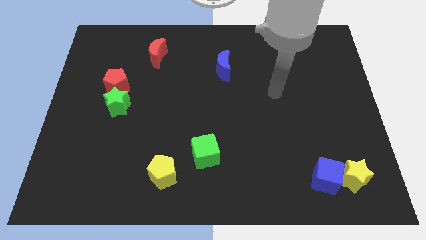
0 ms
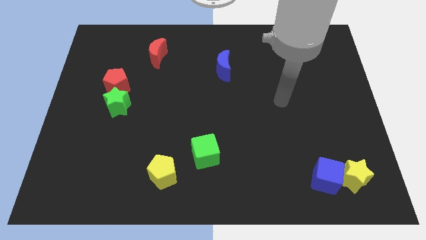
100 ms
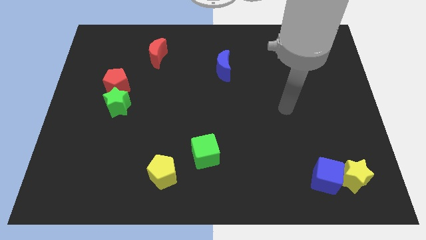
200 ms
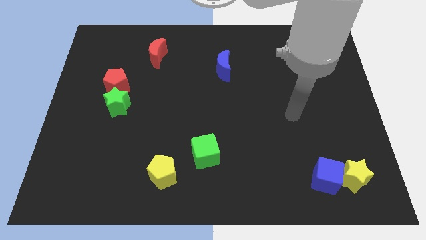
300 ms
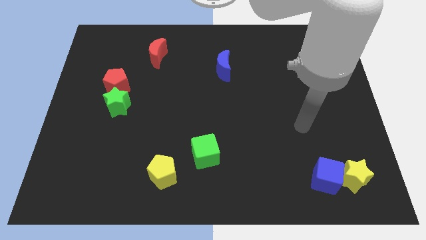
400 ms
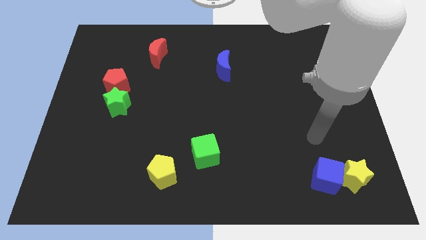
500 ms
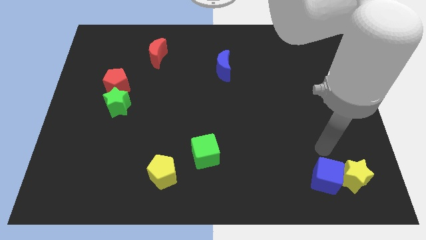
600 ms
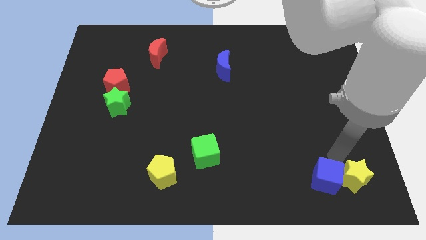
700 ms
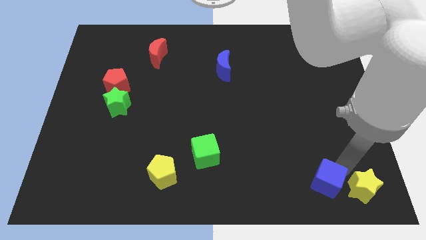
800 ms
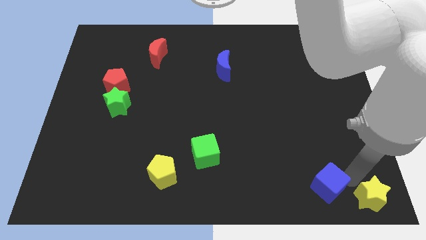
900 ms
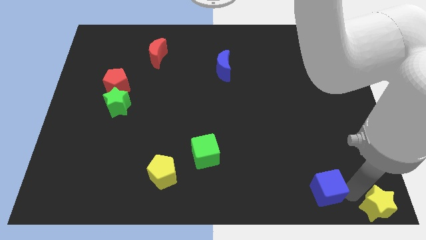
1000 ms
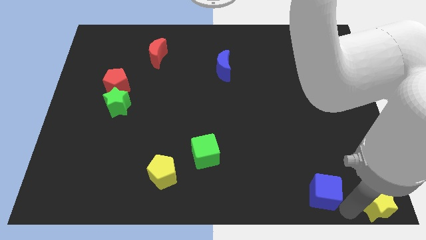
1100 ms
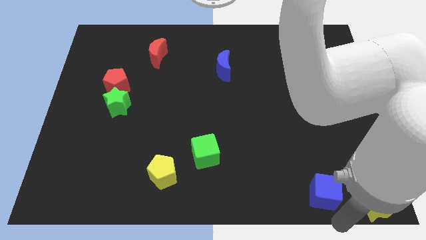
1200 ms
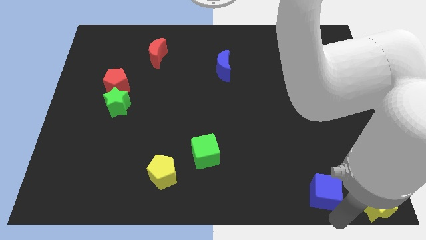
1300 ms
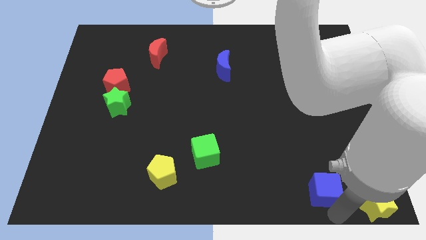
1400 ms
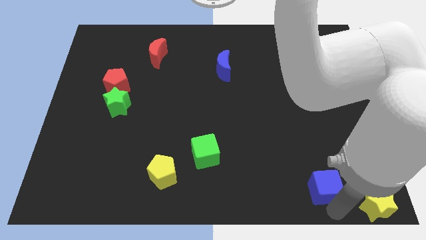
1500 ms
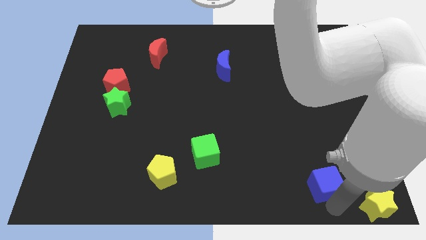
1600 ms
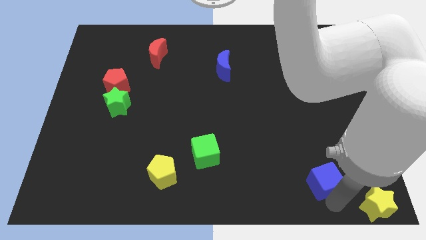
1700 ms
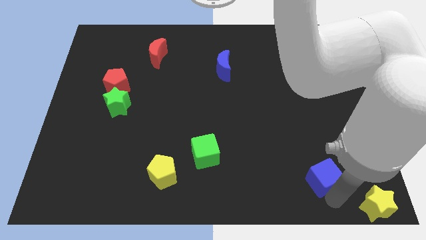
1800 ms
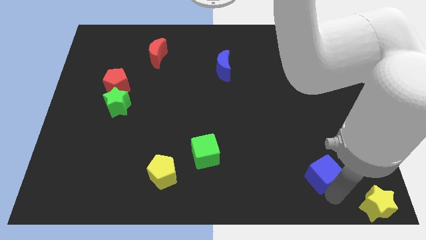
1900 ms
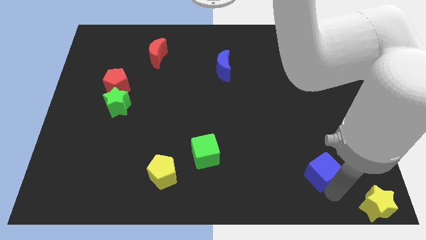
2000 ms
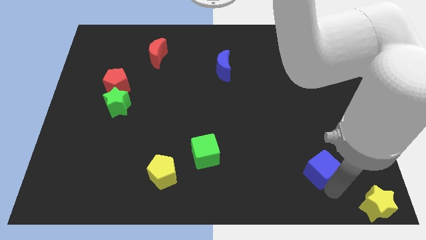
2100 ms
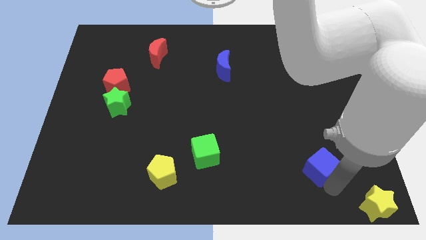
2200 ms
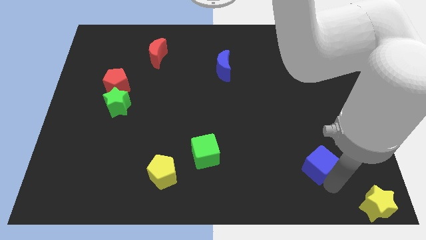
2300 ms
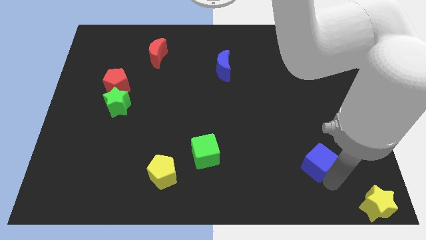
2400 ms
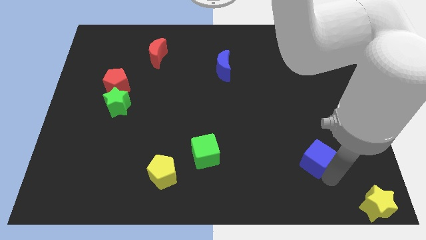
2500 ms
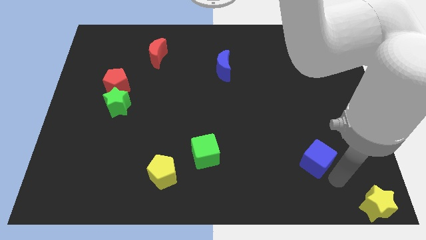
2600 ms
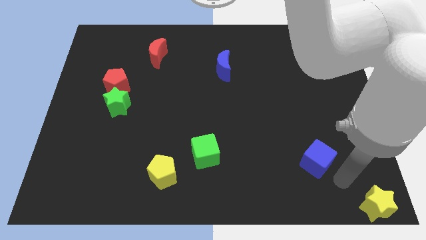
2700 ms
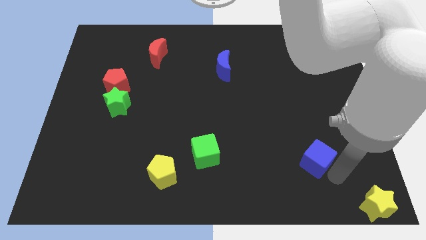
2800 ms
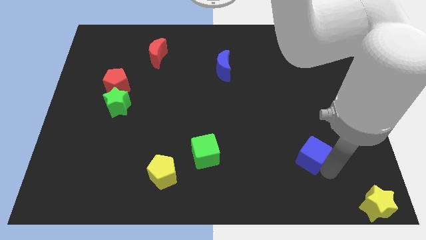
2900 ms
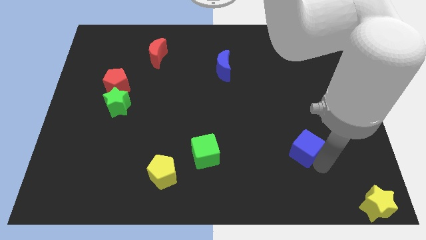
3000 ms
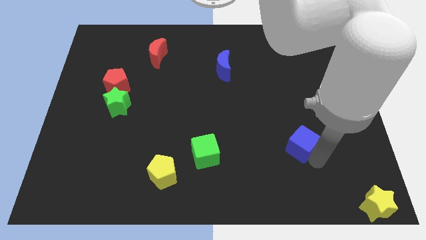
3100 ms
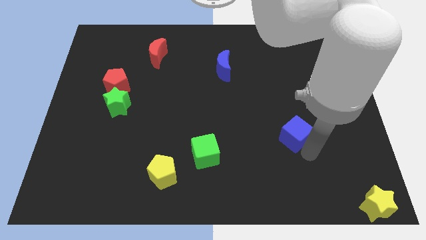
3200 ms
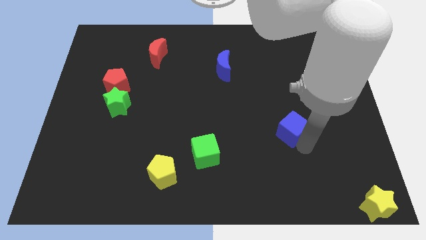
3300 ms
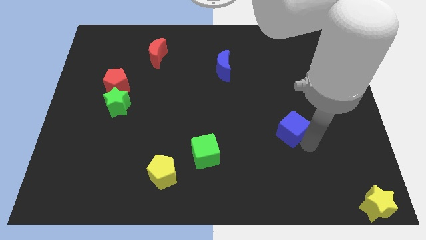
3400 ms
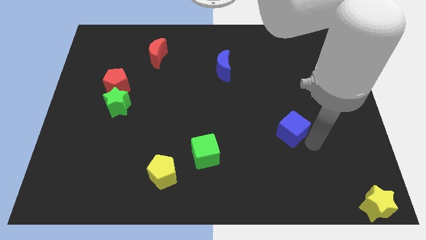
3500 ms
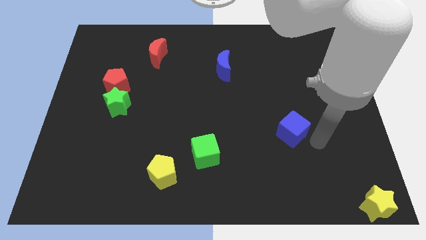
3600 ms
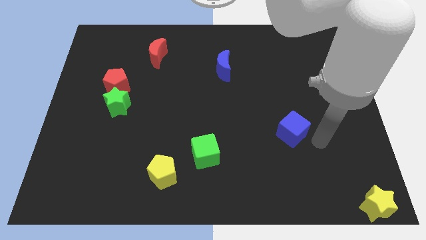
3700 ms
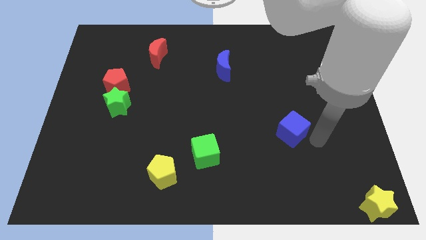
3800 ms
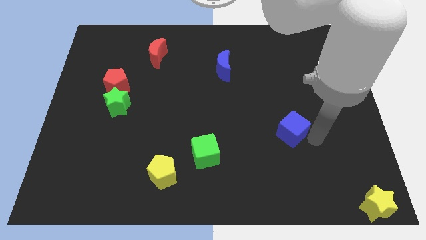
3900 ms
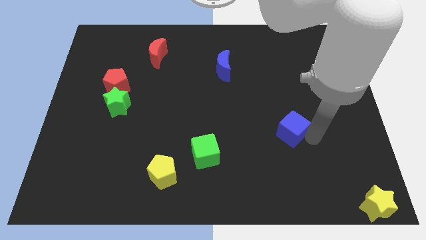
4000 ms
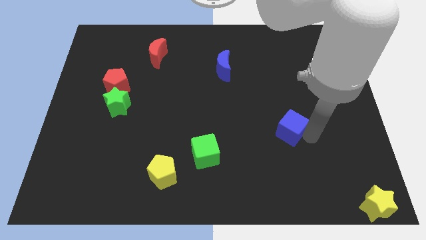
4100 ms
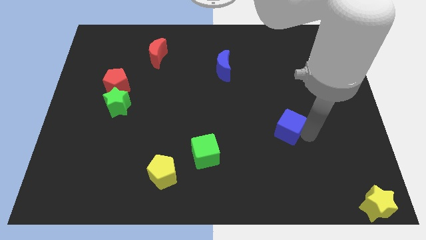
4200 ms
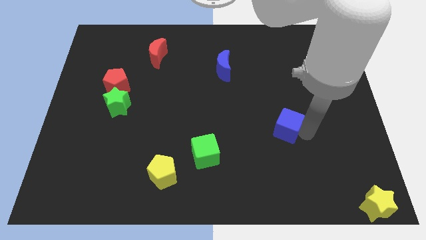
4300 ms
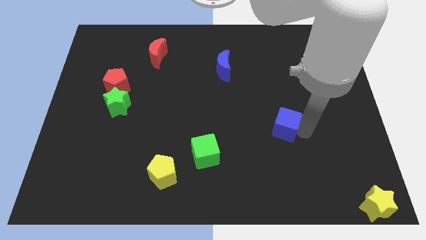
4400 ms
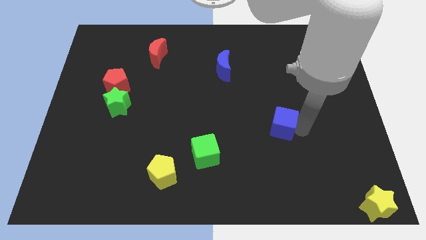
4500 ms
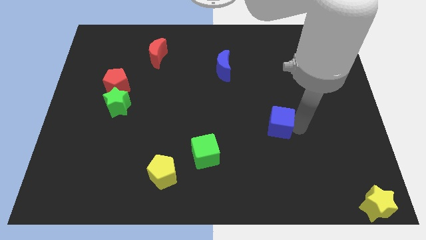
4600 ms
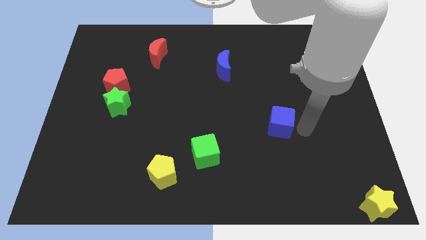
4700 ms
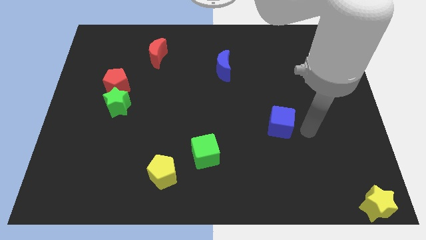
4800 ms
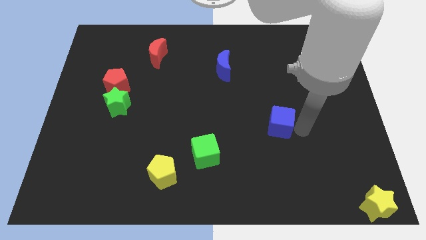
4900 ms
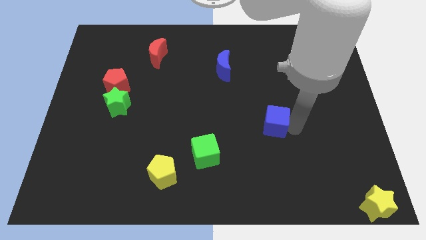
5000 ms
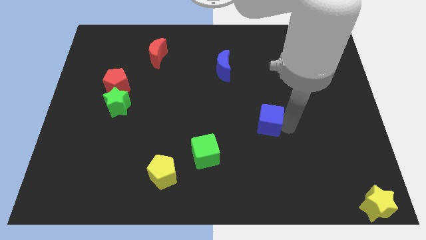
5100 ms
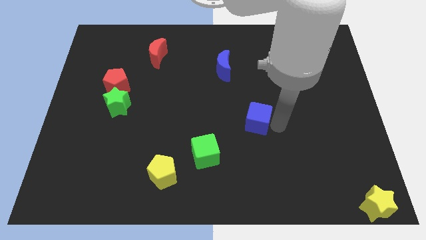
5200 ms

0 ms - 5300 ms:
push the blue cube to the middle of the board

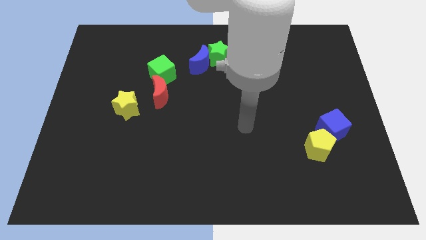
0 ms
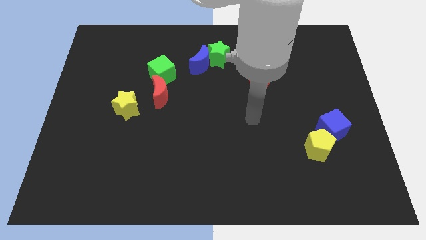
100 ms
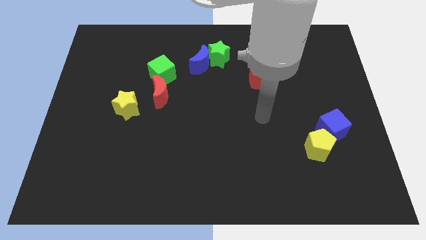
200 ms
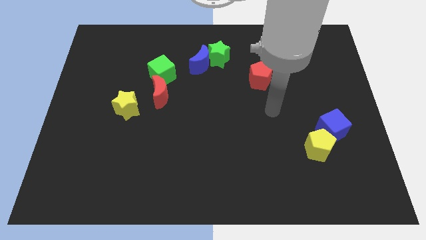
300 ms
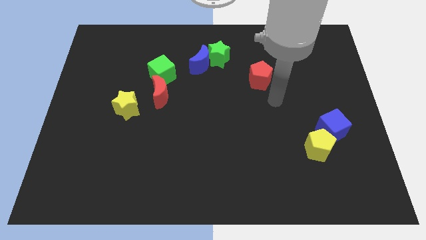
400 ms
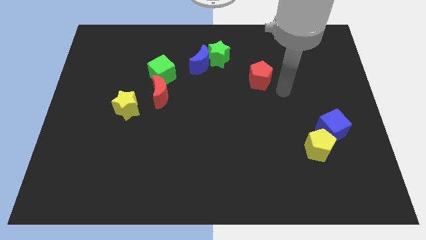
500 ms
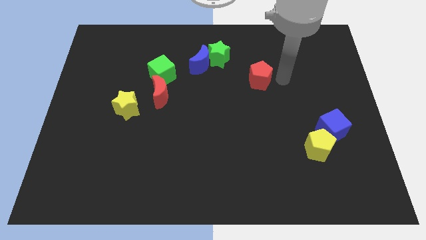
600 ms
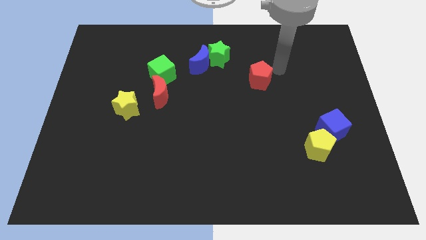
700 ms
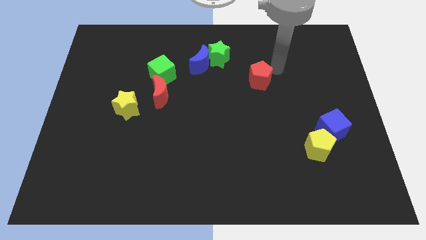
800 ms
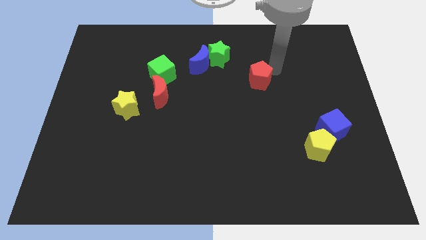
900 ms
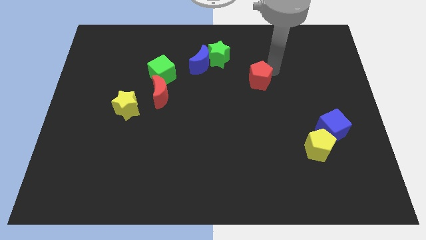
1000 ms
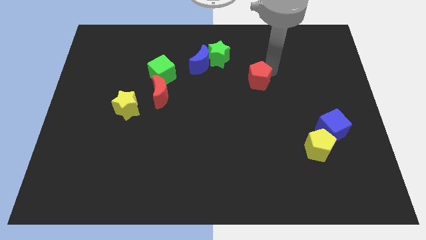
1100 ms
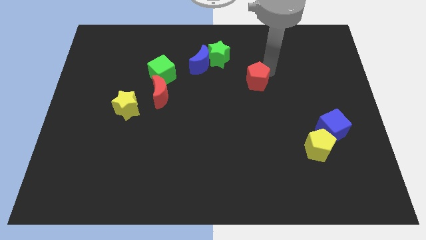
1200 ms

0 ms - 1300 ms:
move the red pentagon to the middle of the board
